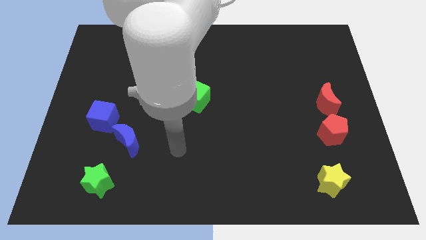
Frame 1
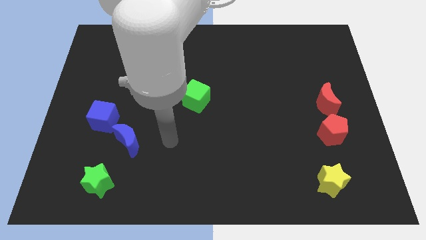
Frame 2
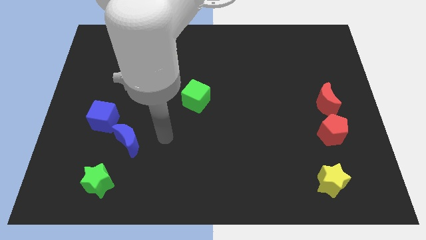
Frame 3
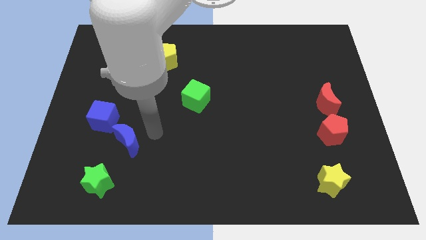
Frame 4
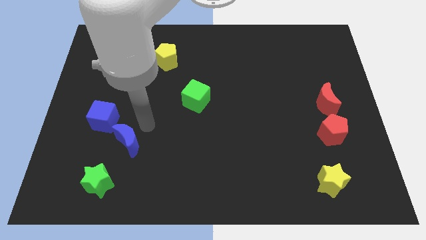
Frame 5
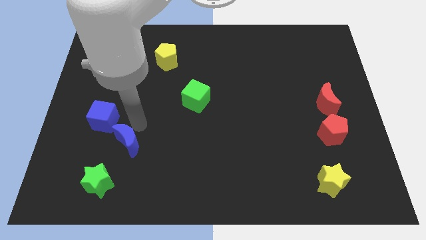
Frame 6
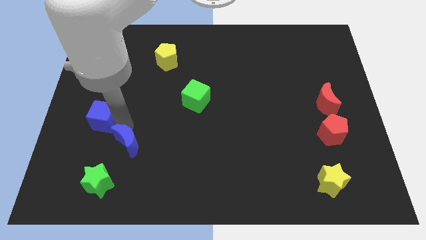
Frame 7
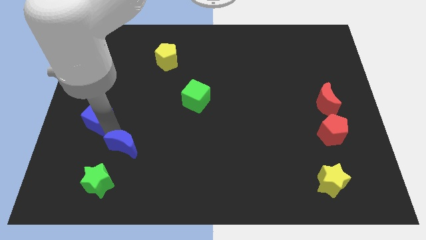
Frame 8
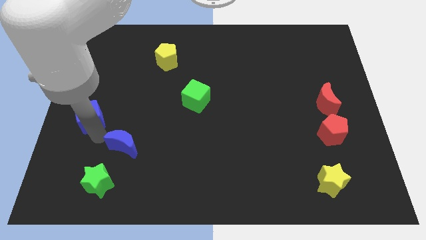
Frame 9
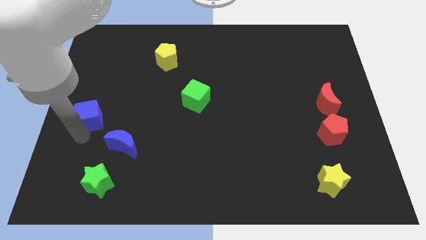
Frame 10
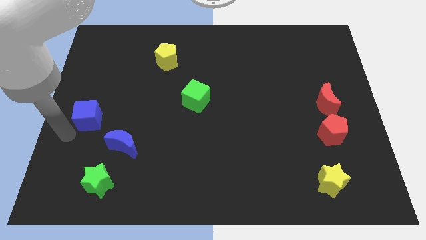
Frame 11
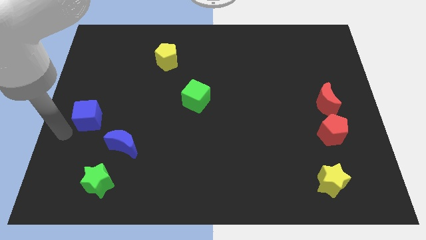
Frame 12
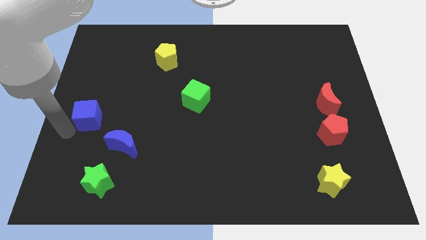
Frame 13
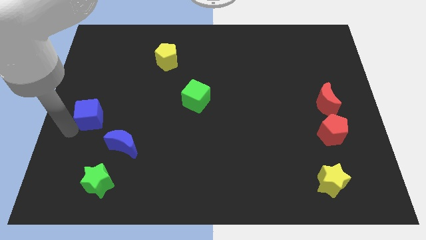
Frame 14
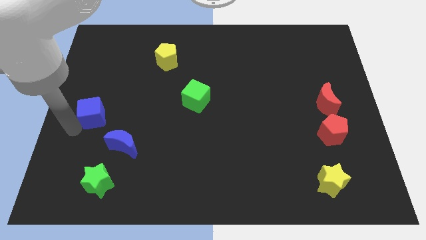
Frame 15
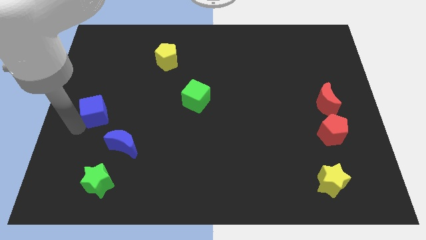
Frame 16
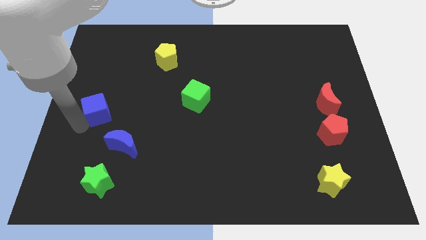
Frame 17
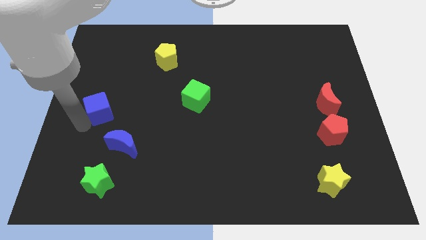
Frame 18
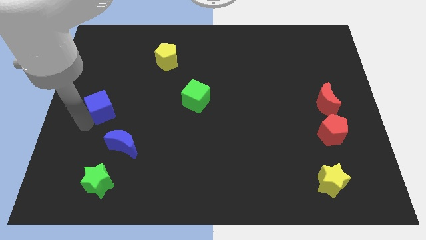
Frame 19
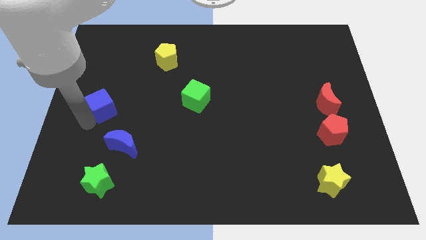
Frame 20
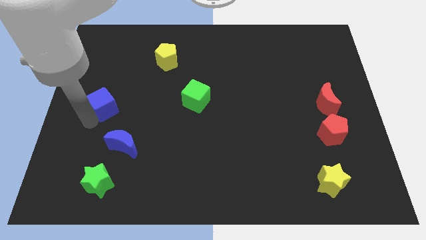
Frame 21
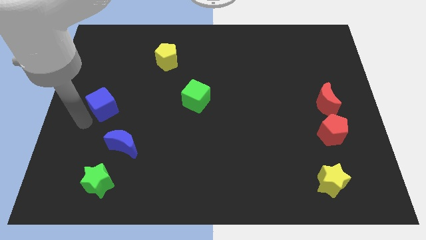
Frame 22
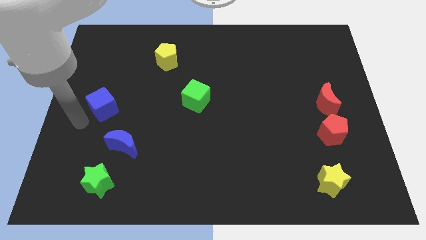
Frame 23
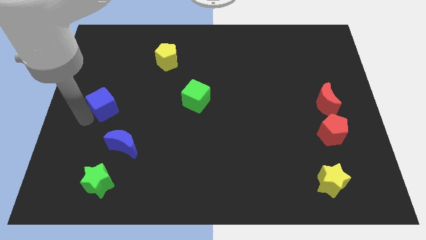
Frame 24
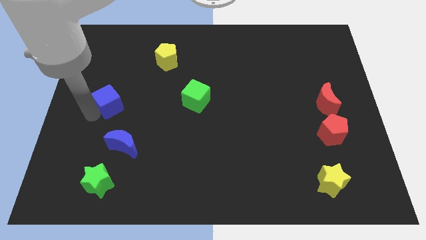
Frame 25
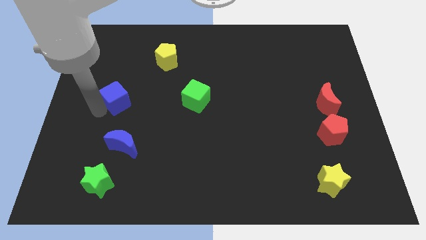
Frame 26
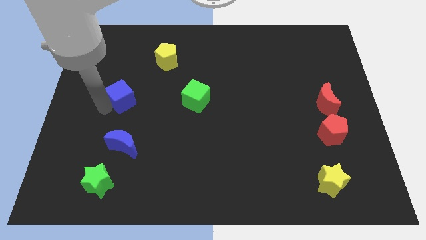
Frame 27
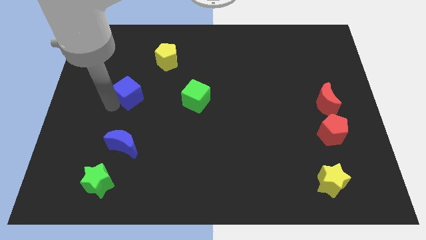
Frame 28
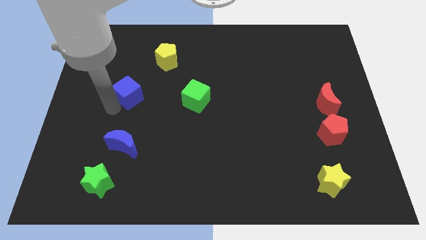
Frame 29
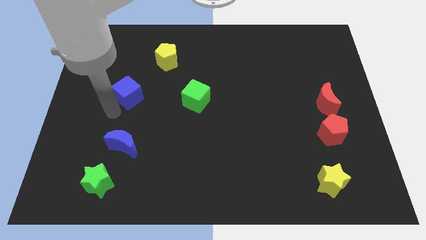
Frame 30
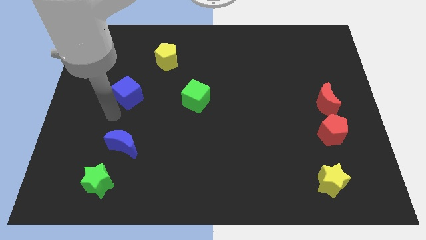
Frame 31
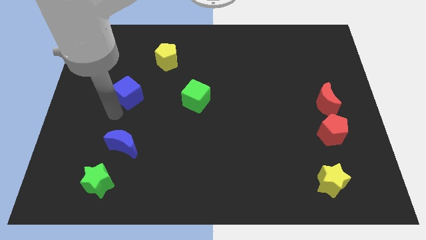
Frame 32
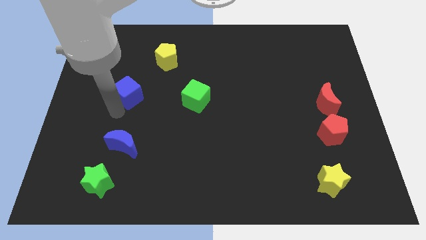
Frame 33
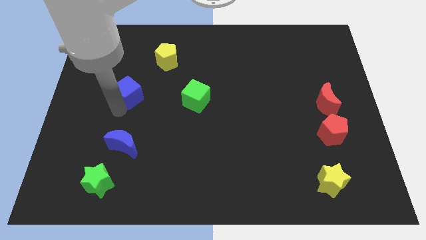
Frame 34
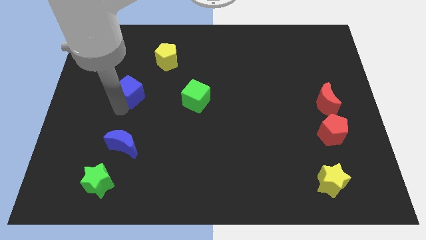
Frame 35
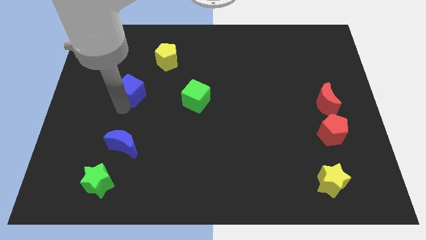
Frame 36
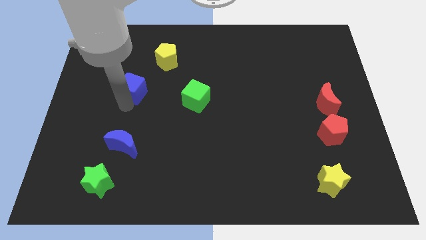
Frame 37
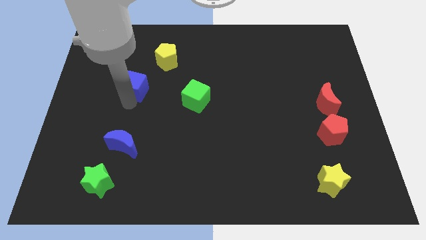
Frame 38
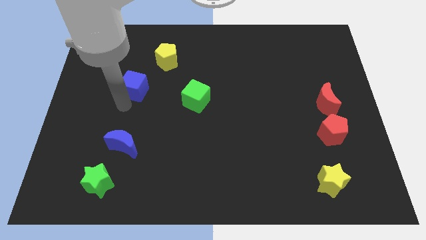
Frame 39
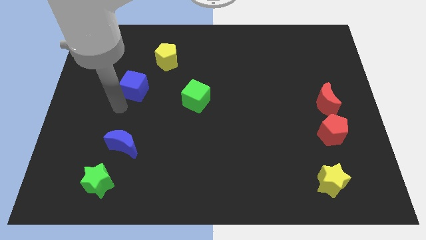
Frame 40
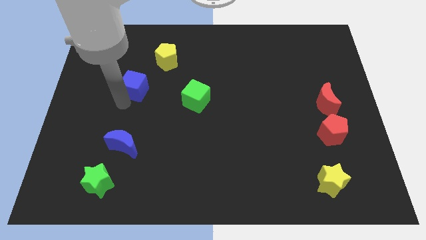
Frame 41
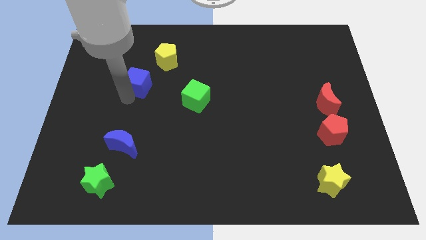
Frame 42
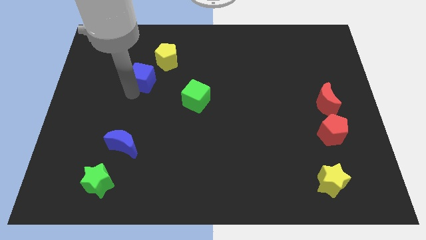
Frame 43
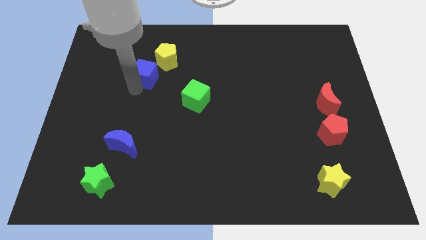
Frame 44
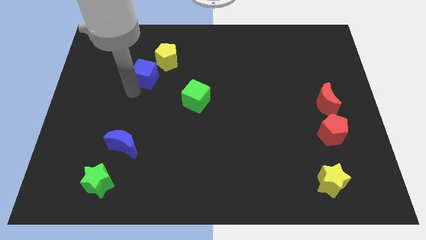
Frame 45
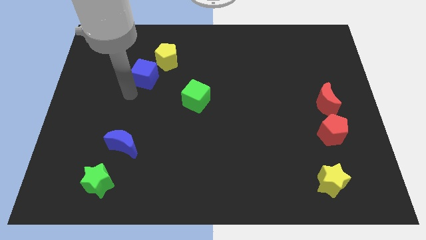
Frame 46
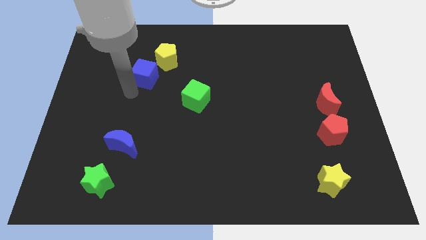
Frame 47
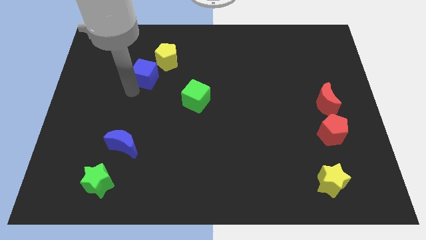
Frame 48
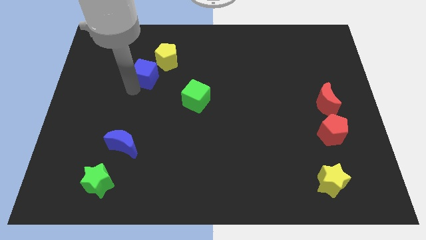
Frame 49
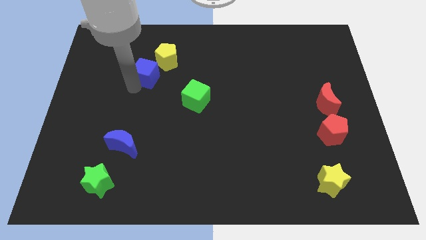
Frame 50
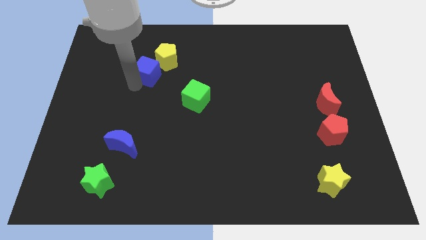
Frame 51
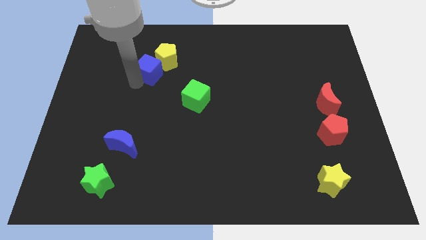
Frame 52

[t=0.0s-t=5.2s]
put the blue cube towards the yellow pentagon

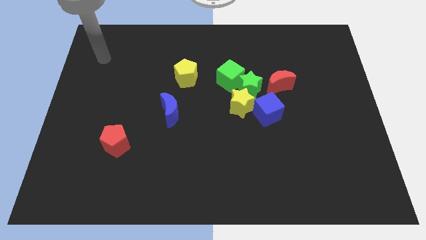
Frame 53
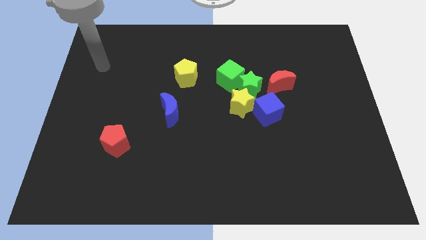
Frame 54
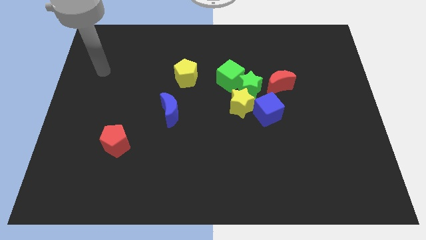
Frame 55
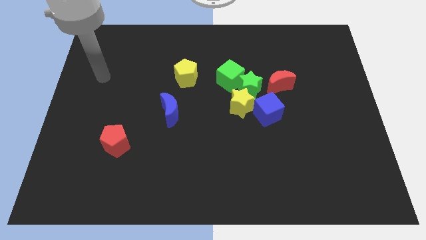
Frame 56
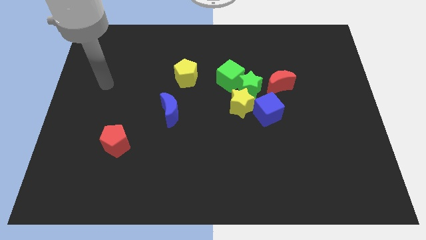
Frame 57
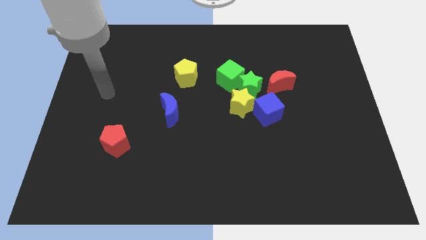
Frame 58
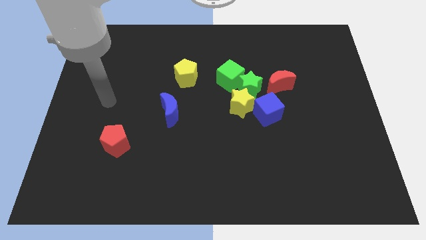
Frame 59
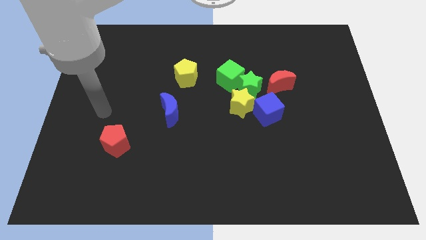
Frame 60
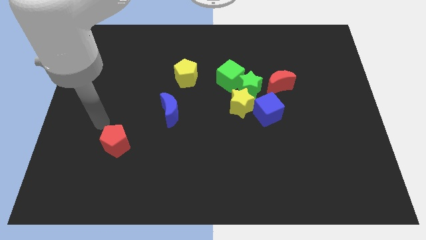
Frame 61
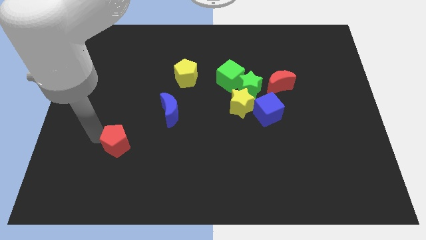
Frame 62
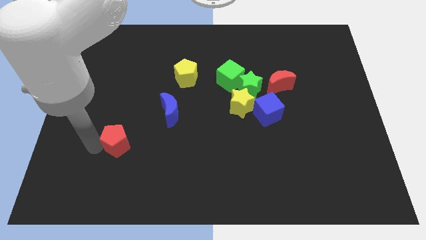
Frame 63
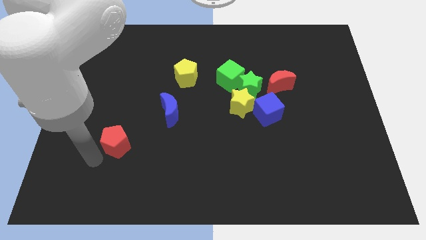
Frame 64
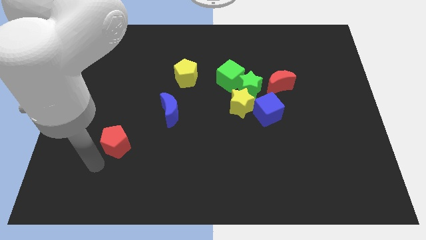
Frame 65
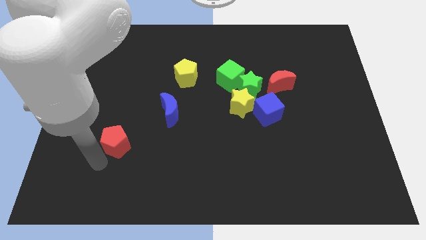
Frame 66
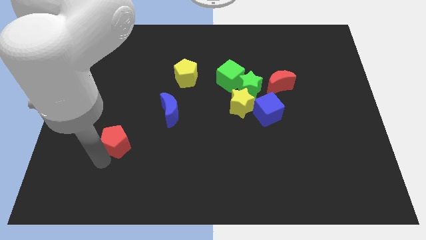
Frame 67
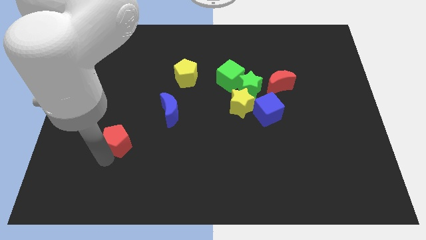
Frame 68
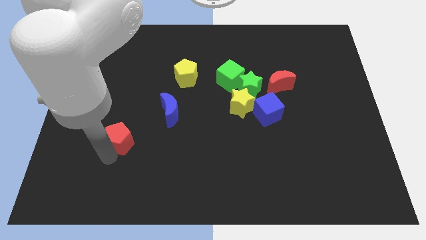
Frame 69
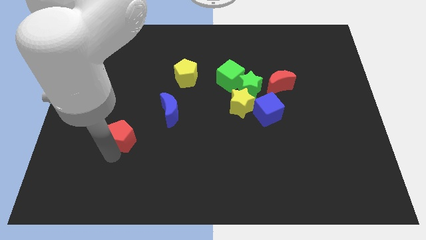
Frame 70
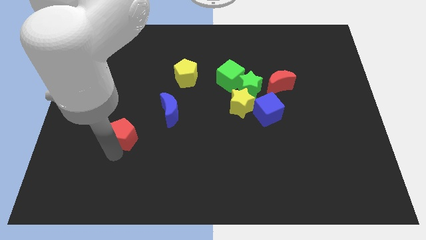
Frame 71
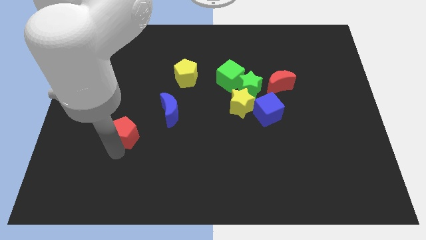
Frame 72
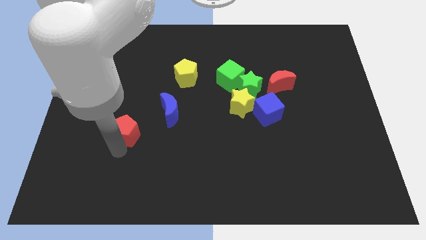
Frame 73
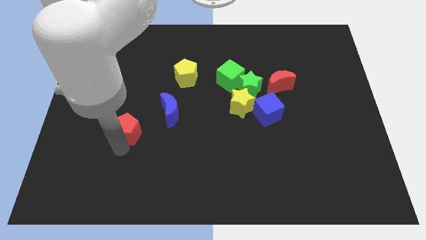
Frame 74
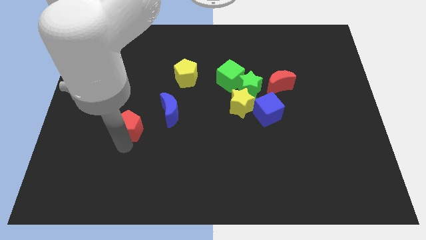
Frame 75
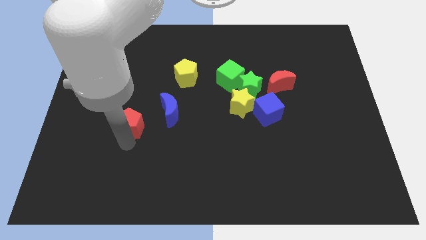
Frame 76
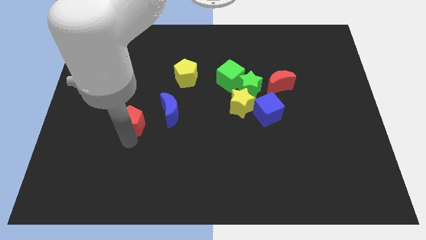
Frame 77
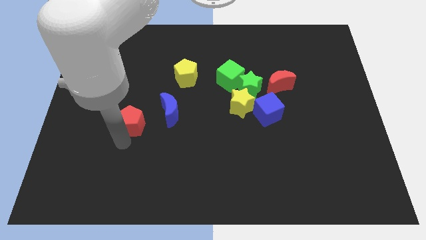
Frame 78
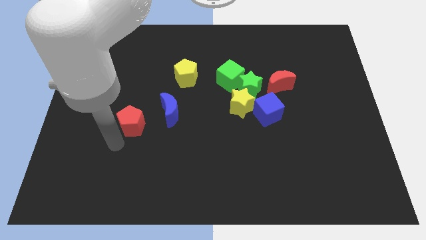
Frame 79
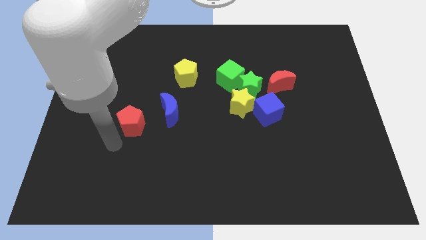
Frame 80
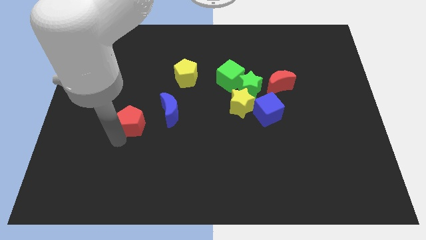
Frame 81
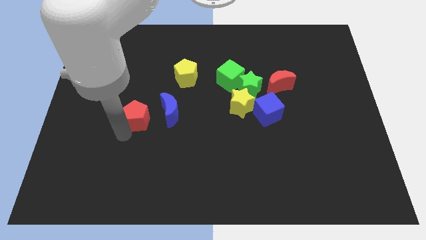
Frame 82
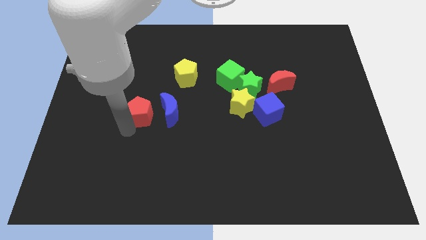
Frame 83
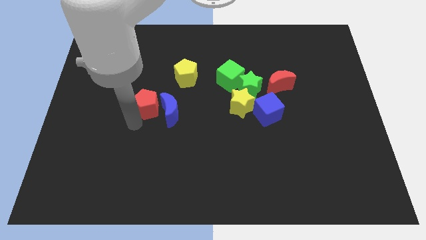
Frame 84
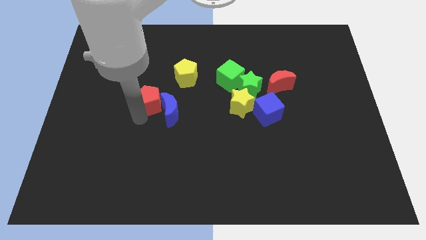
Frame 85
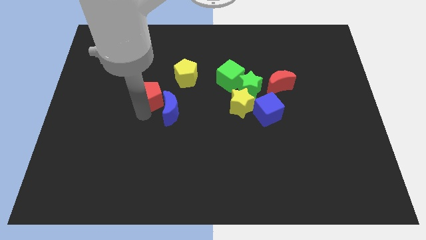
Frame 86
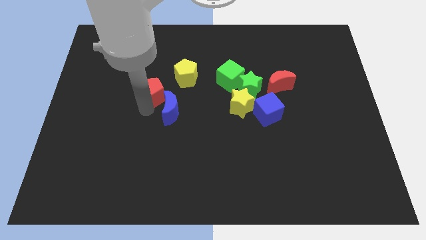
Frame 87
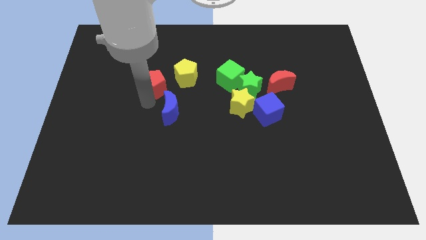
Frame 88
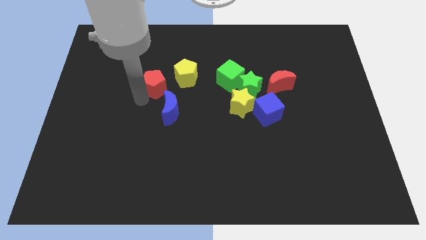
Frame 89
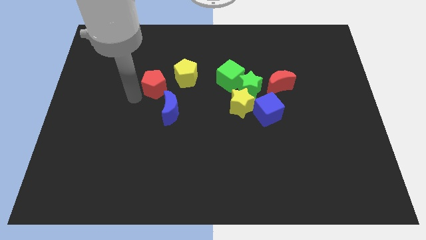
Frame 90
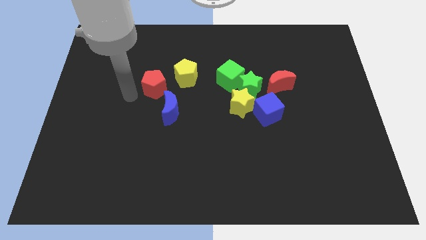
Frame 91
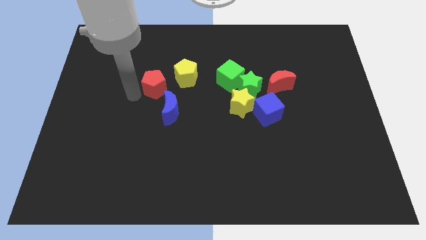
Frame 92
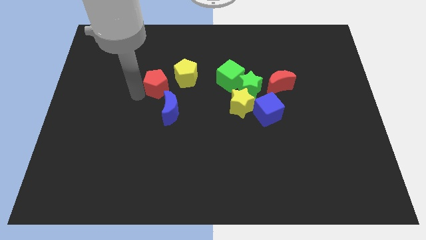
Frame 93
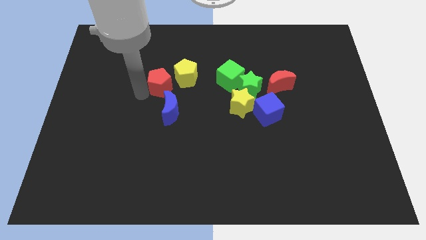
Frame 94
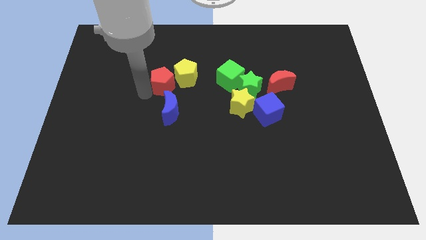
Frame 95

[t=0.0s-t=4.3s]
push the red pentagon close to the yellow pentagon
